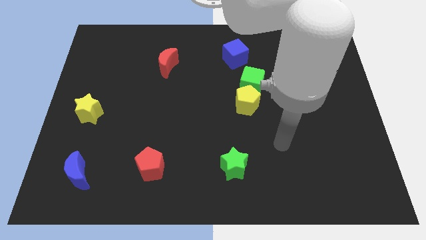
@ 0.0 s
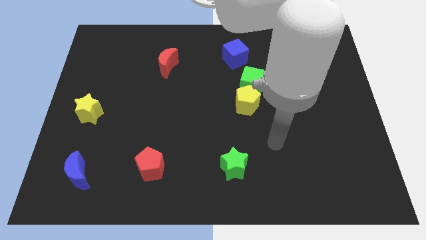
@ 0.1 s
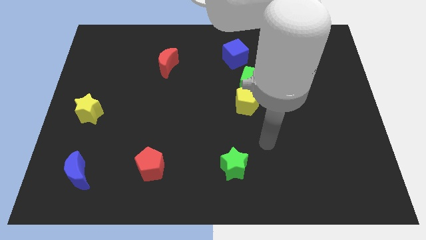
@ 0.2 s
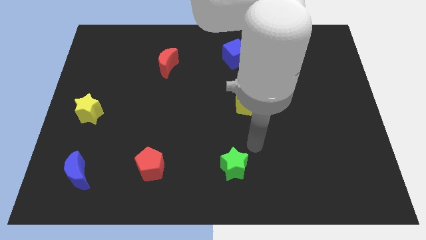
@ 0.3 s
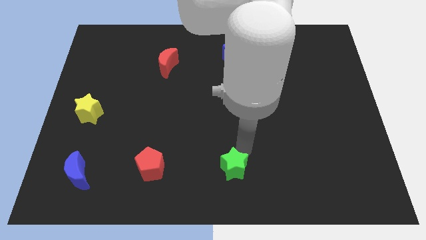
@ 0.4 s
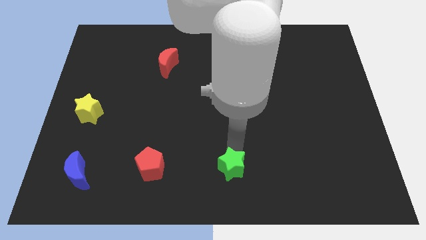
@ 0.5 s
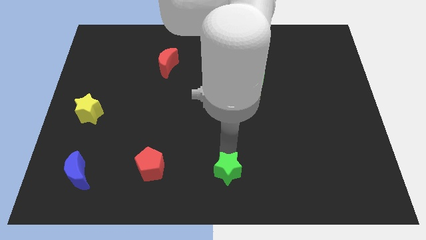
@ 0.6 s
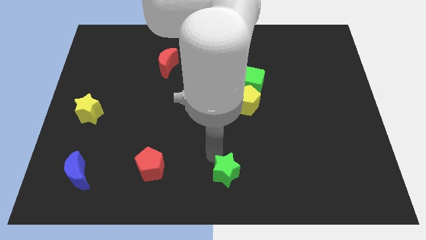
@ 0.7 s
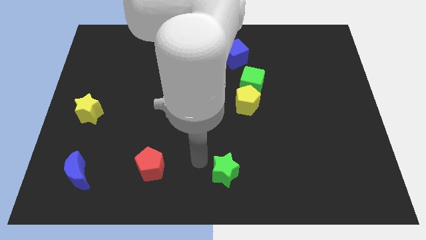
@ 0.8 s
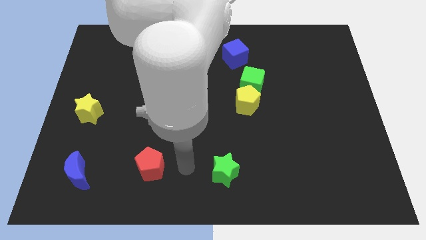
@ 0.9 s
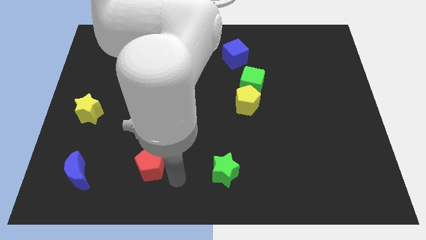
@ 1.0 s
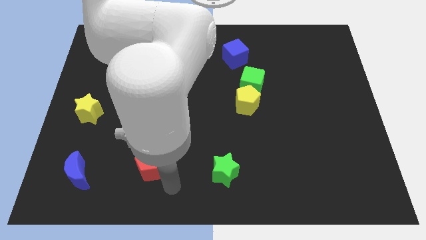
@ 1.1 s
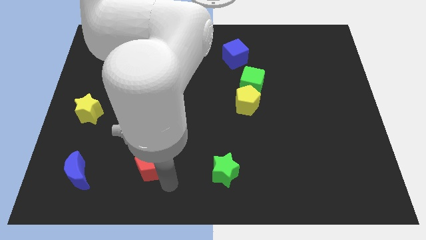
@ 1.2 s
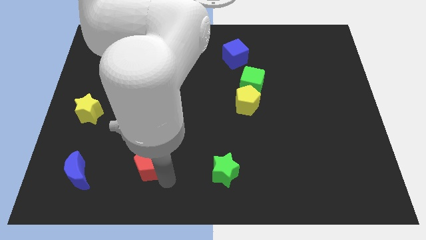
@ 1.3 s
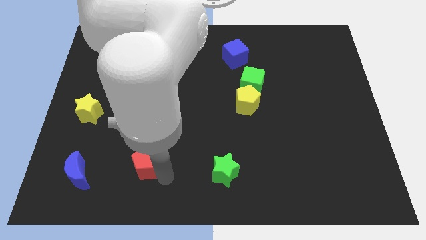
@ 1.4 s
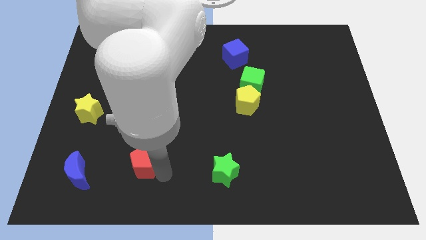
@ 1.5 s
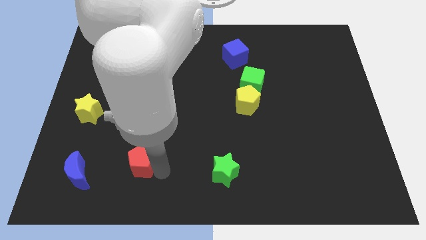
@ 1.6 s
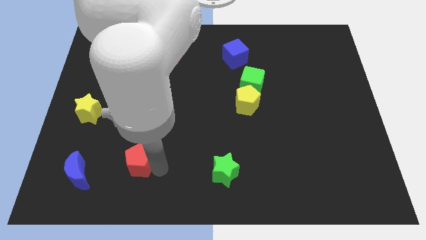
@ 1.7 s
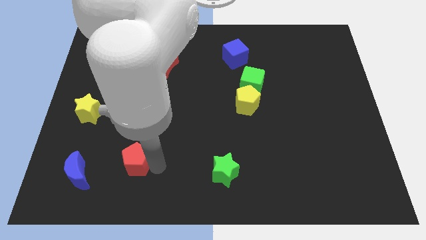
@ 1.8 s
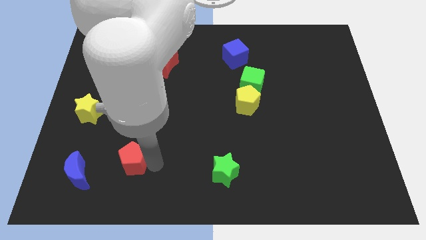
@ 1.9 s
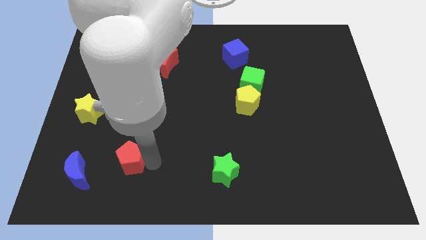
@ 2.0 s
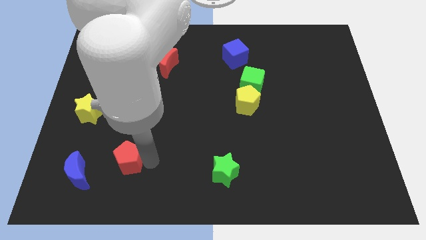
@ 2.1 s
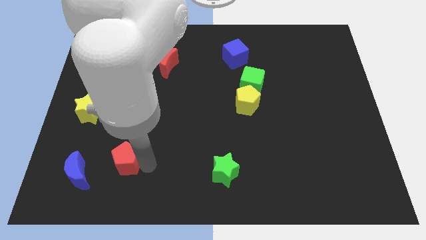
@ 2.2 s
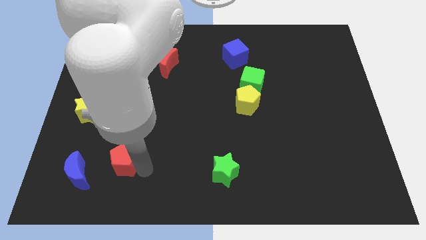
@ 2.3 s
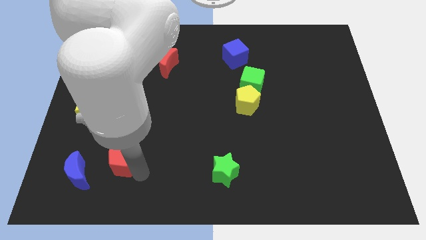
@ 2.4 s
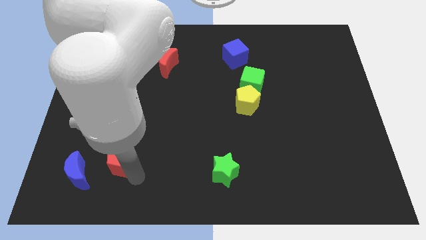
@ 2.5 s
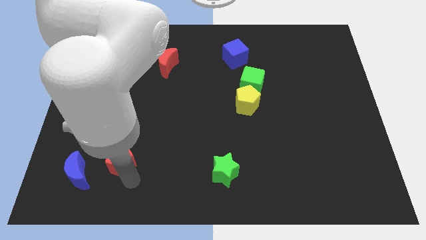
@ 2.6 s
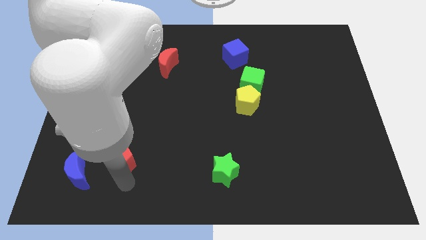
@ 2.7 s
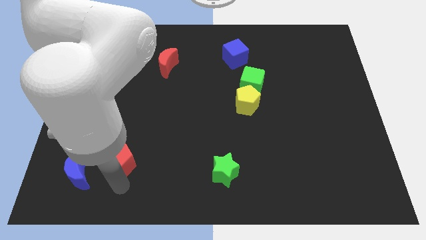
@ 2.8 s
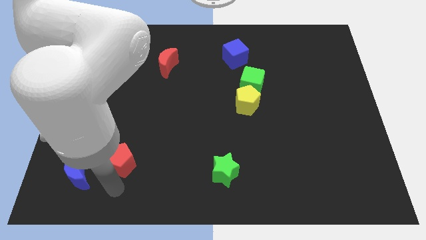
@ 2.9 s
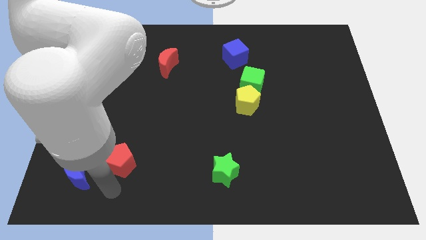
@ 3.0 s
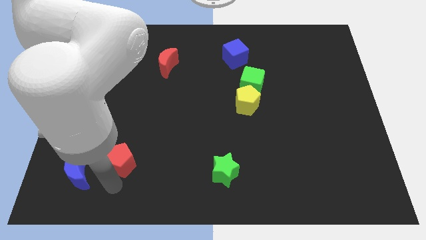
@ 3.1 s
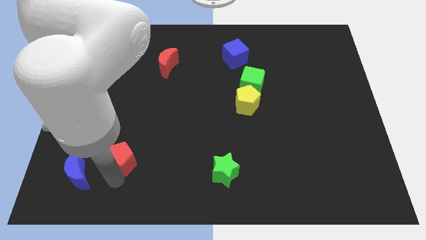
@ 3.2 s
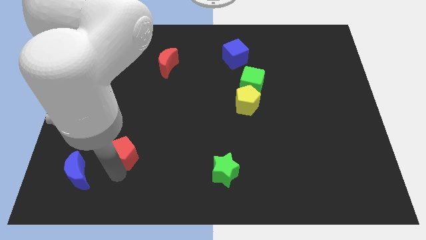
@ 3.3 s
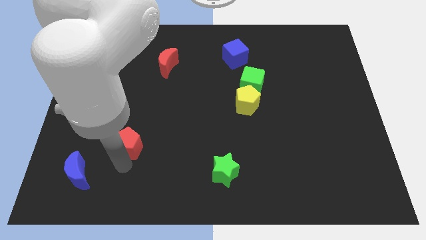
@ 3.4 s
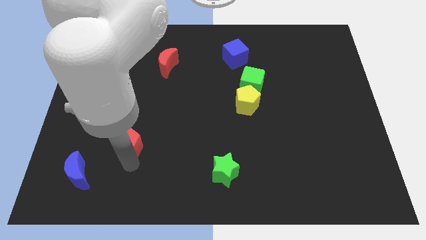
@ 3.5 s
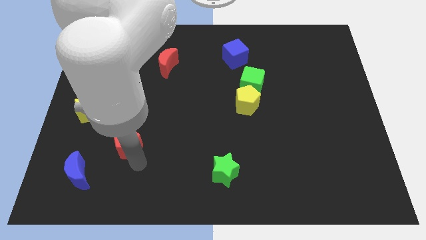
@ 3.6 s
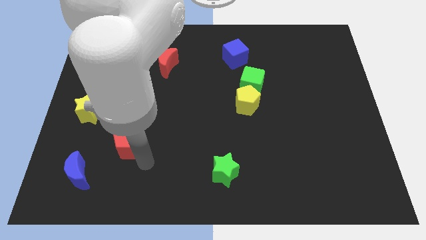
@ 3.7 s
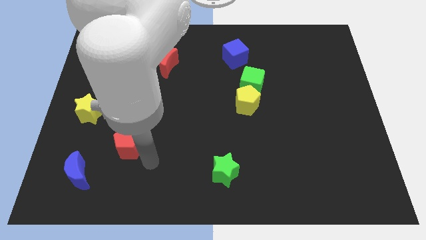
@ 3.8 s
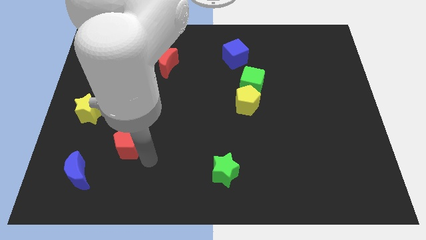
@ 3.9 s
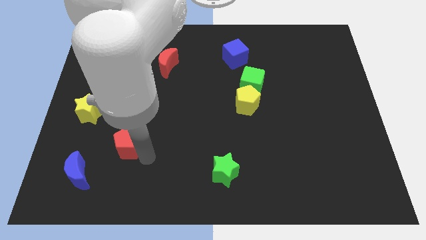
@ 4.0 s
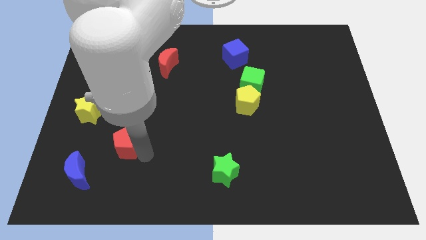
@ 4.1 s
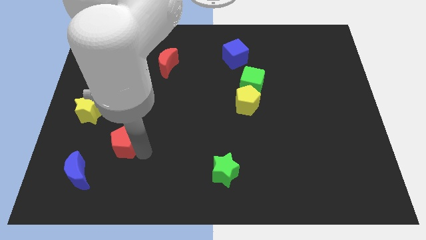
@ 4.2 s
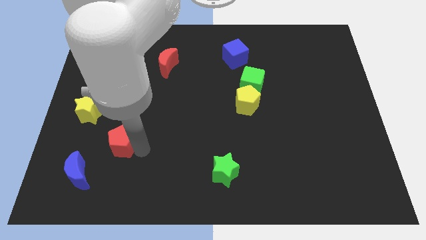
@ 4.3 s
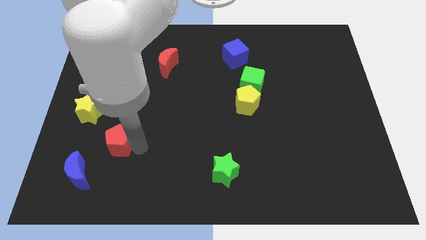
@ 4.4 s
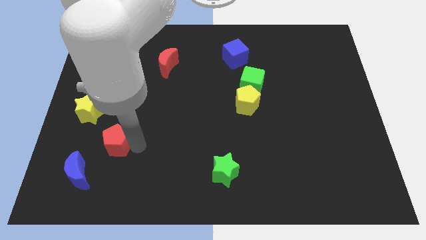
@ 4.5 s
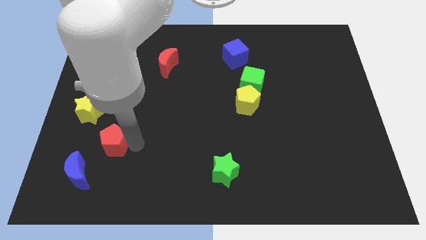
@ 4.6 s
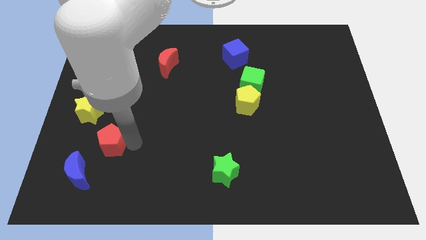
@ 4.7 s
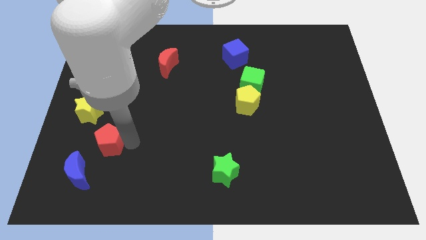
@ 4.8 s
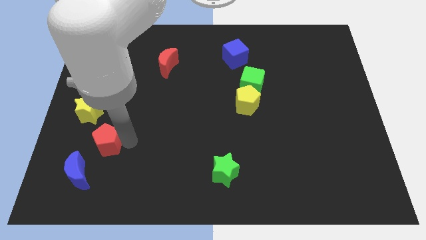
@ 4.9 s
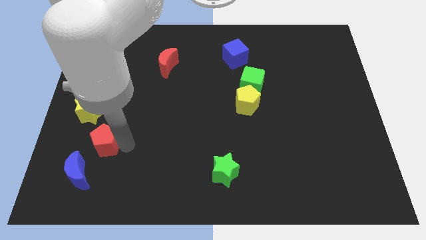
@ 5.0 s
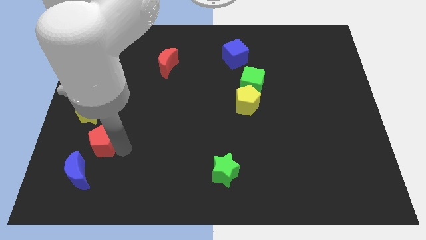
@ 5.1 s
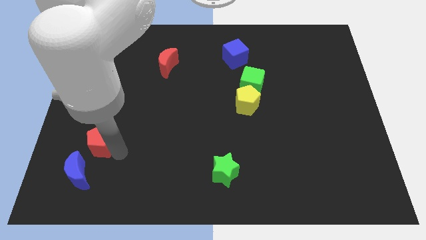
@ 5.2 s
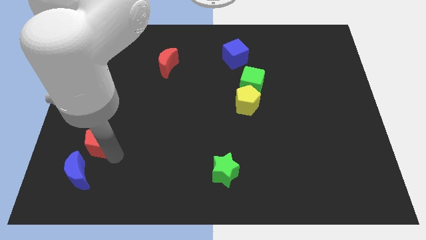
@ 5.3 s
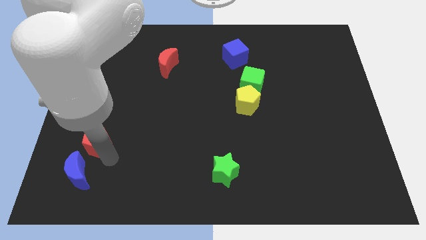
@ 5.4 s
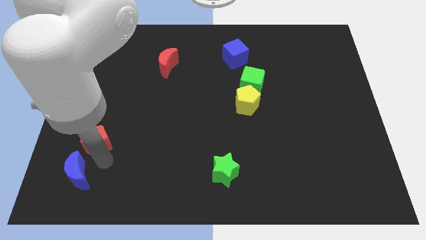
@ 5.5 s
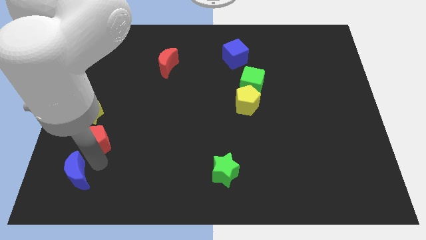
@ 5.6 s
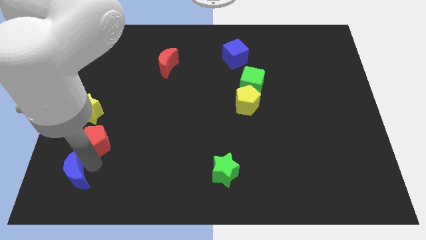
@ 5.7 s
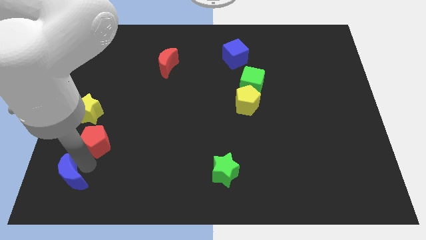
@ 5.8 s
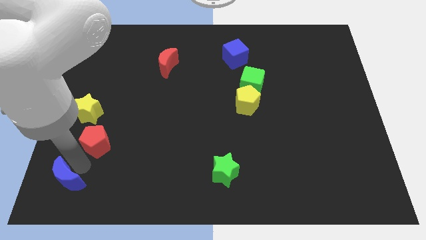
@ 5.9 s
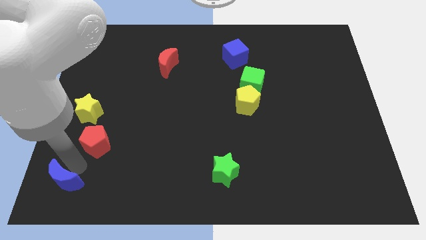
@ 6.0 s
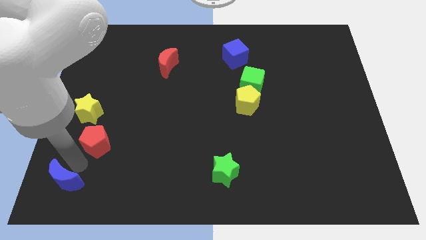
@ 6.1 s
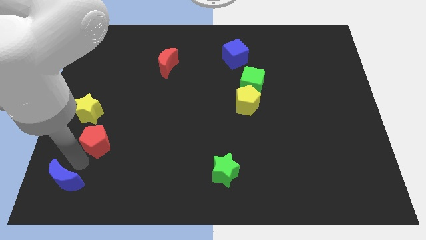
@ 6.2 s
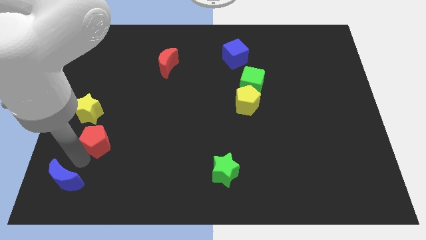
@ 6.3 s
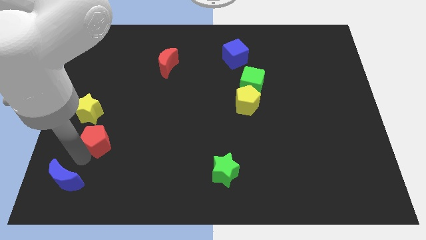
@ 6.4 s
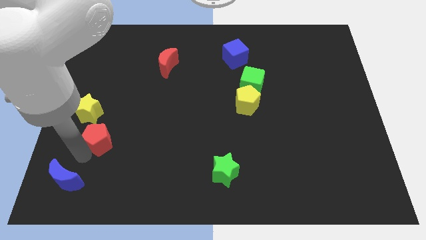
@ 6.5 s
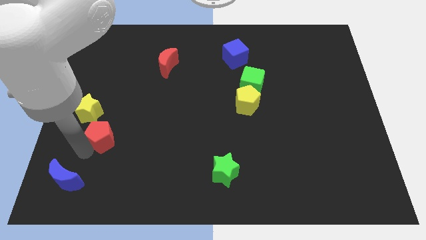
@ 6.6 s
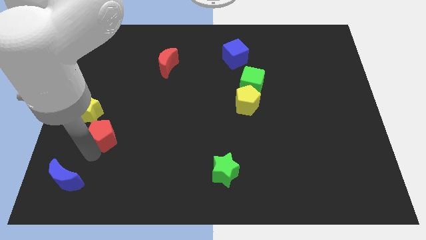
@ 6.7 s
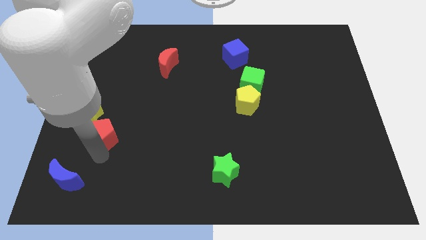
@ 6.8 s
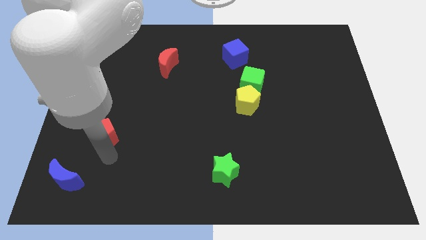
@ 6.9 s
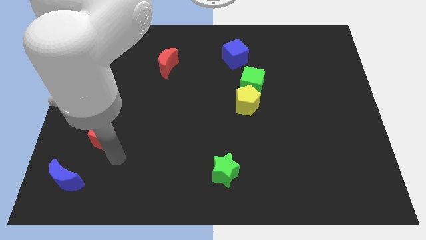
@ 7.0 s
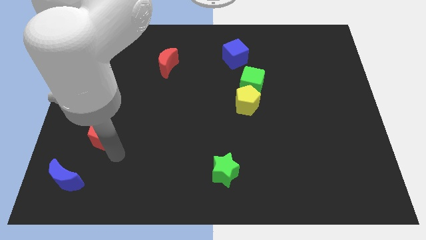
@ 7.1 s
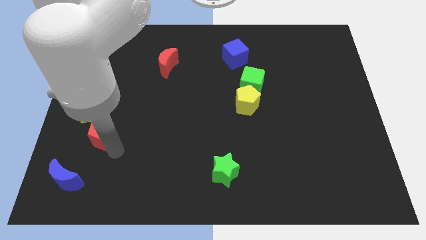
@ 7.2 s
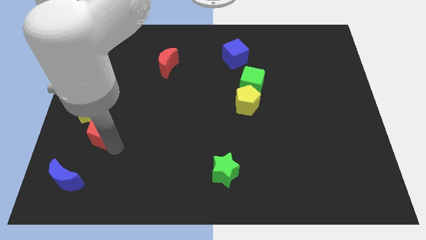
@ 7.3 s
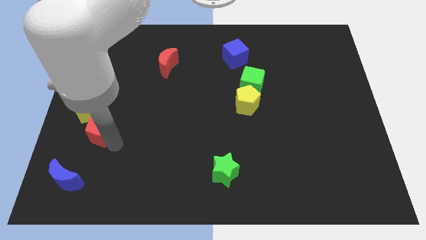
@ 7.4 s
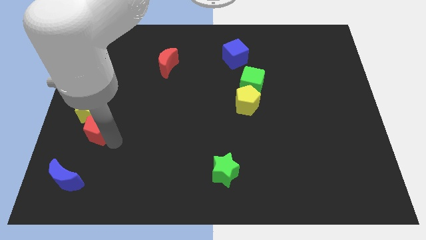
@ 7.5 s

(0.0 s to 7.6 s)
slide the red pentagon towards the yellow star
